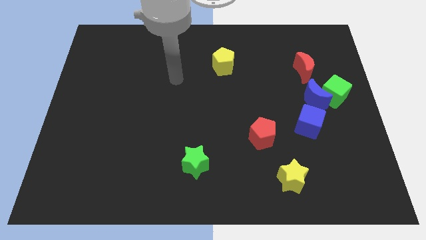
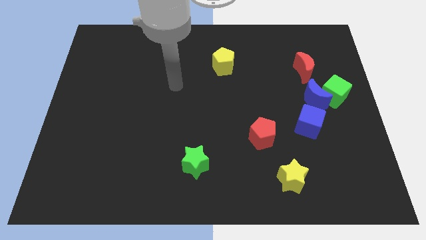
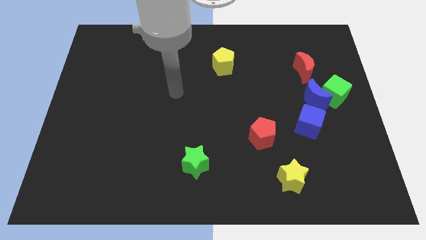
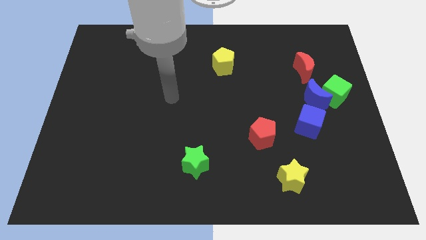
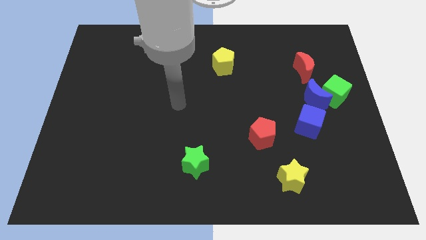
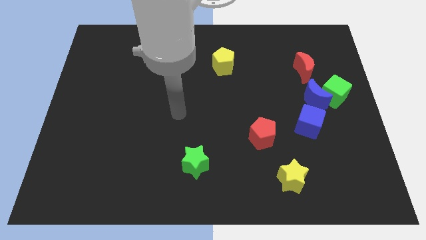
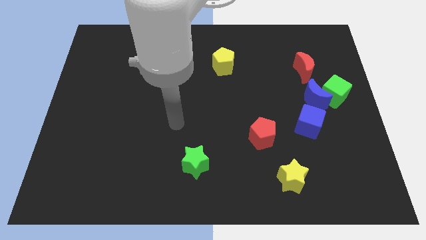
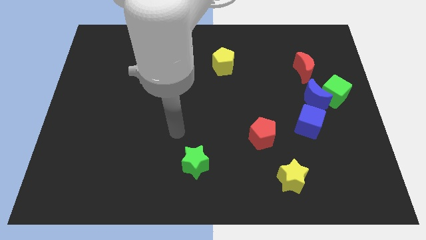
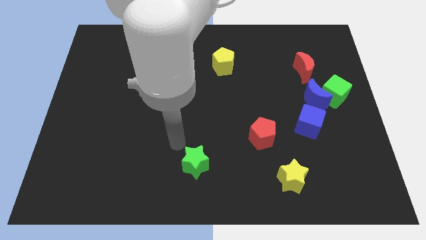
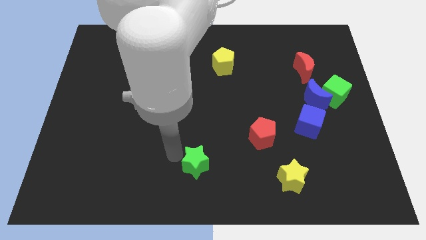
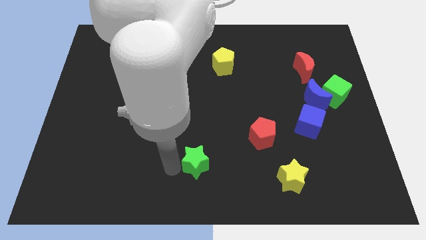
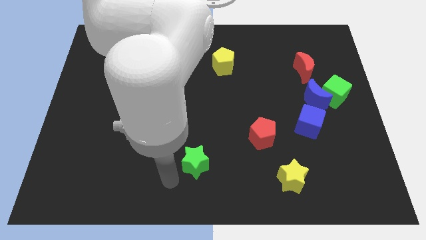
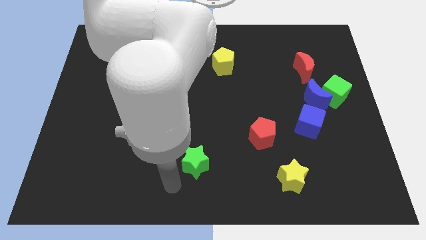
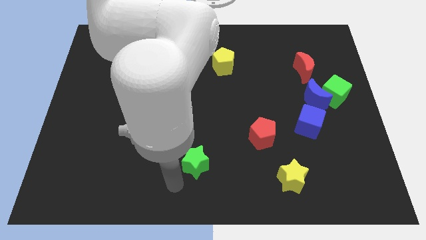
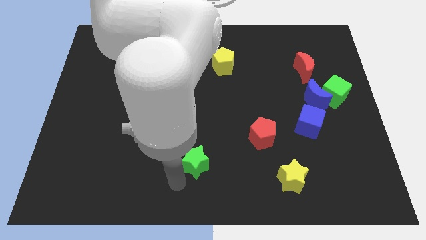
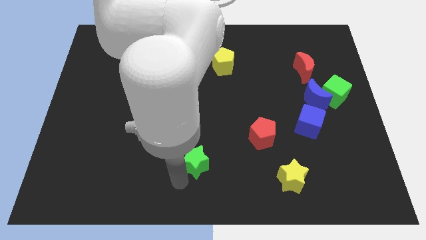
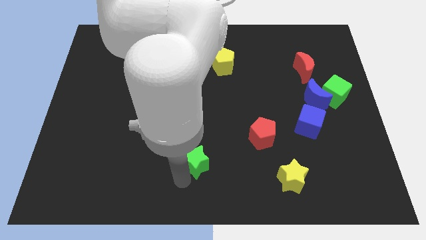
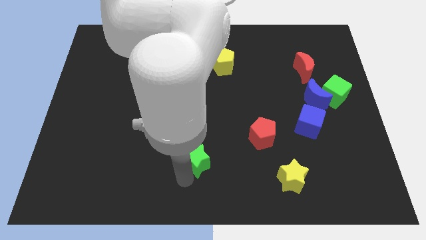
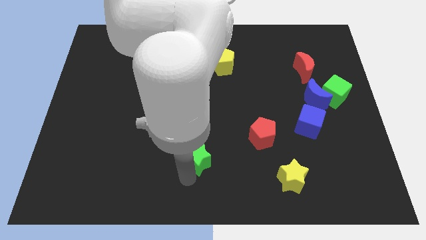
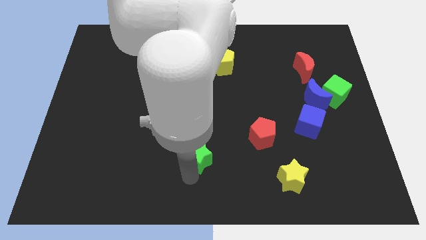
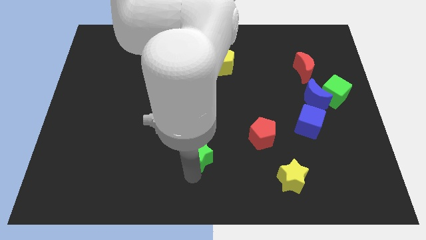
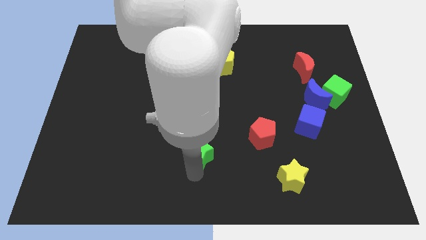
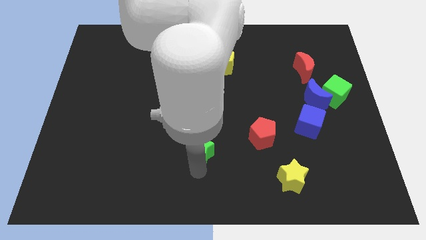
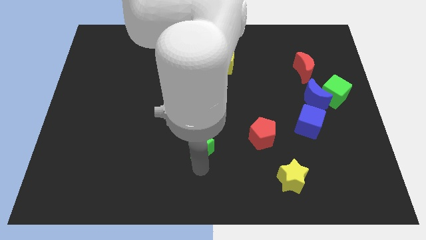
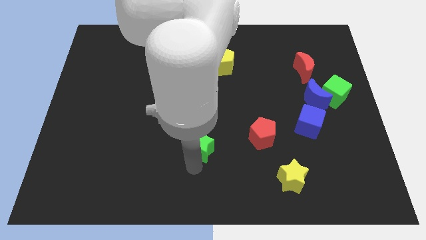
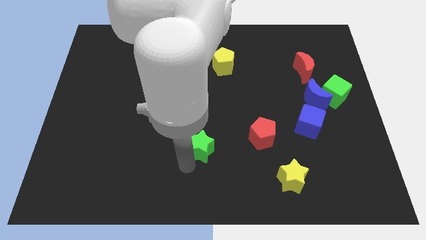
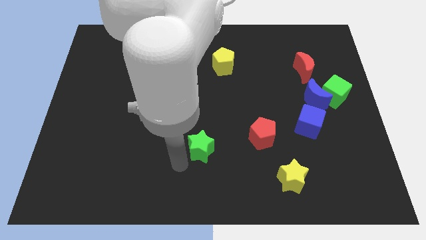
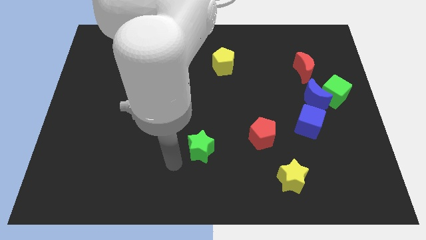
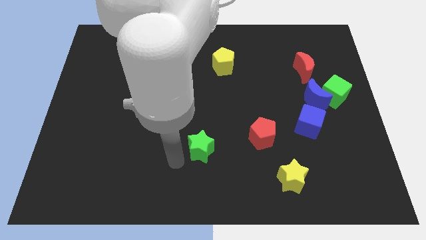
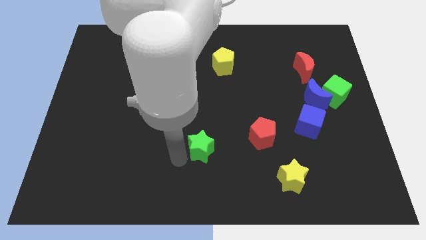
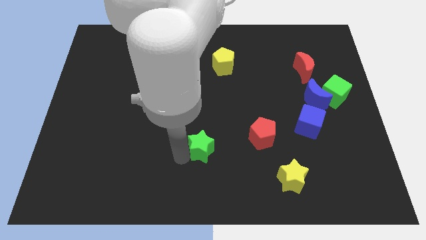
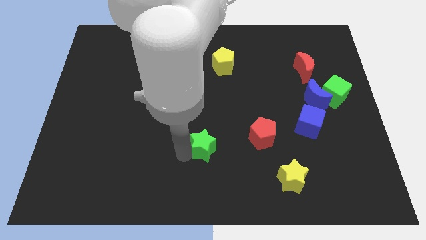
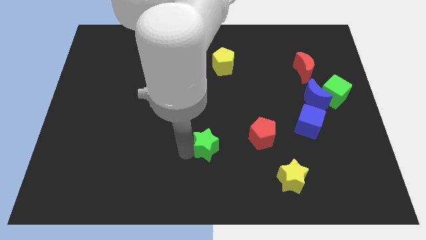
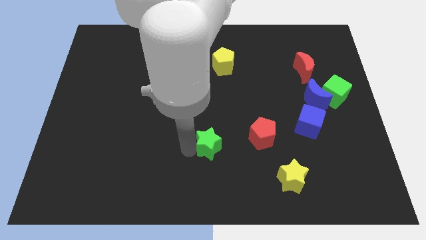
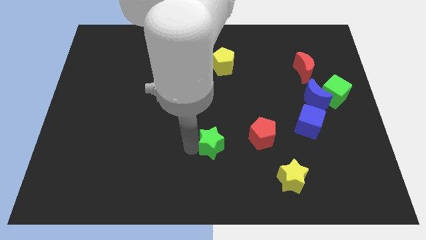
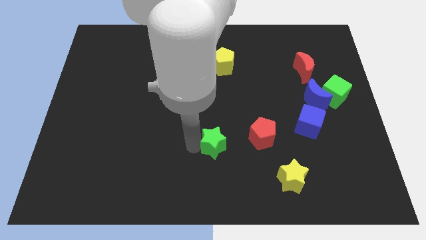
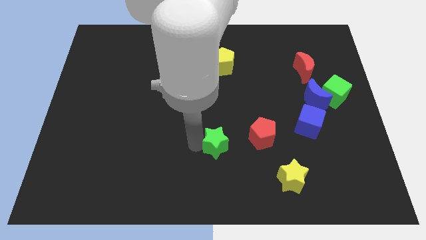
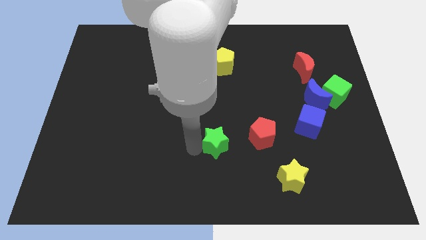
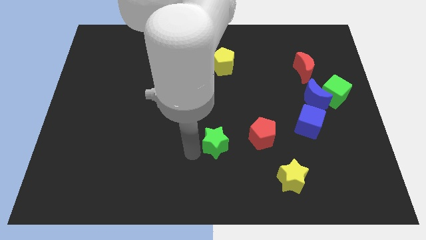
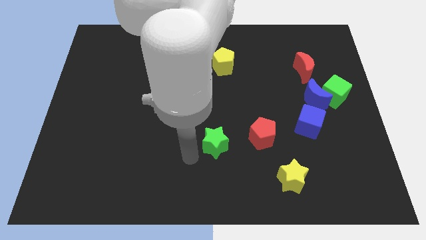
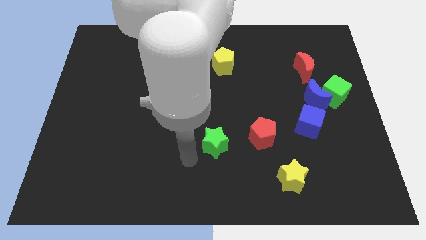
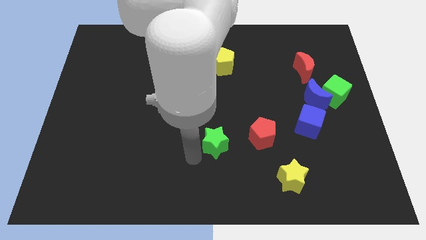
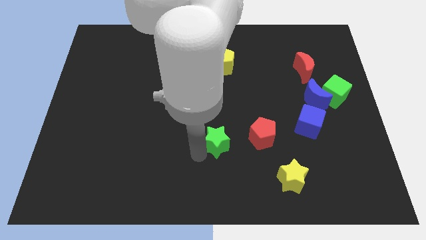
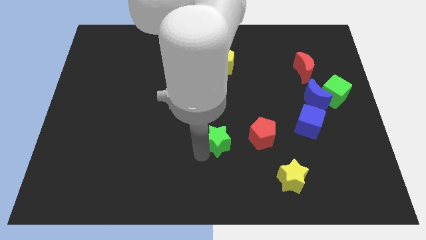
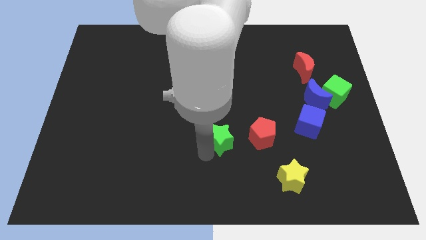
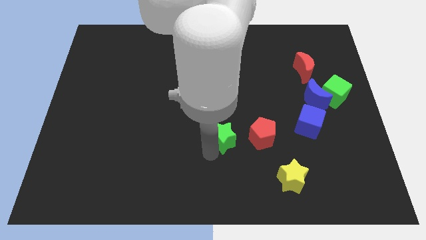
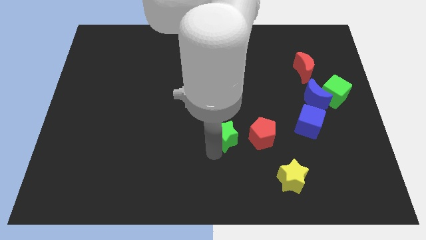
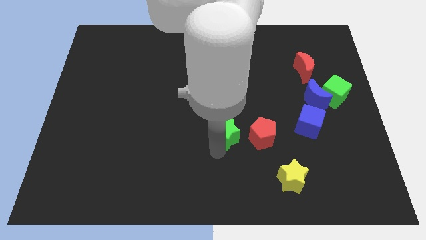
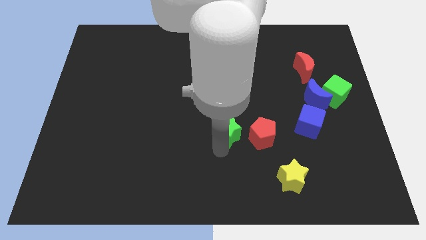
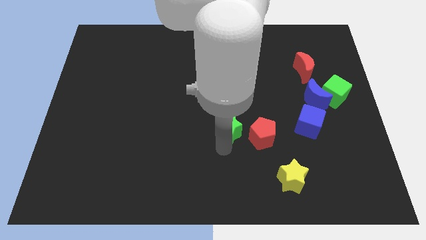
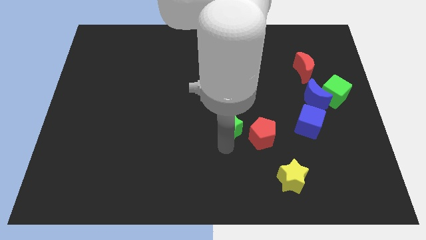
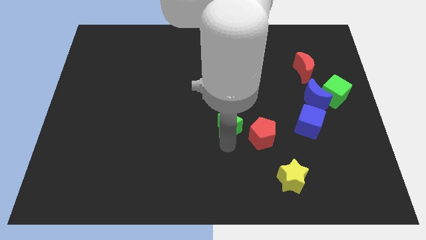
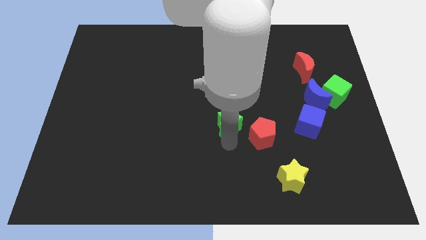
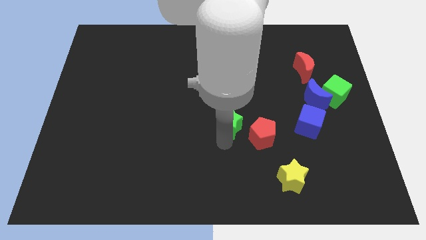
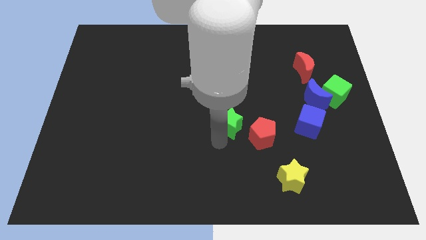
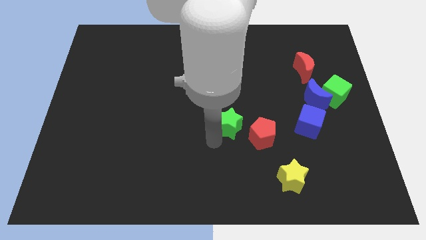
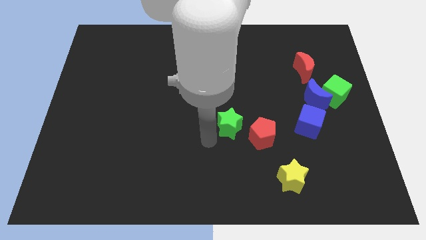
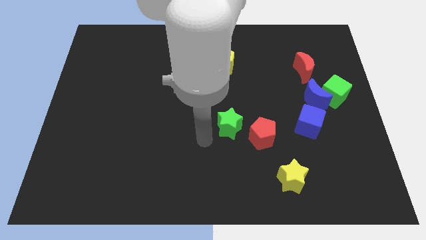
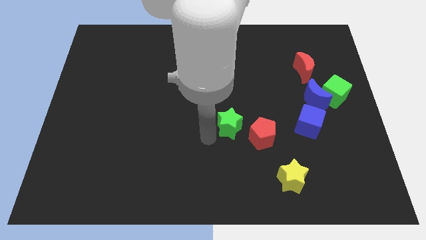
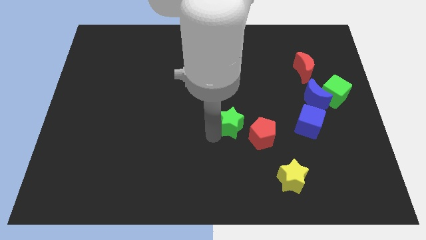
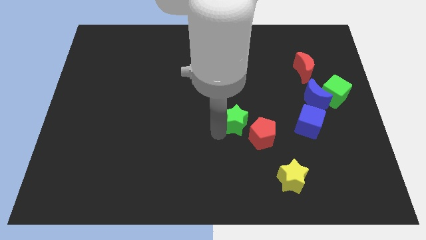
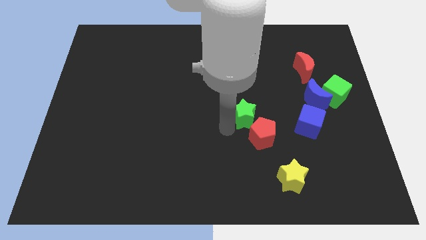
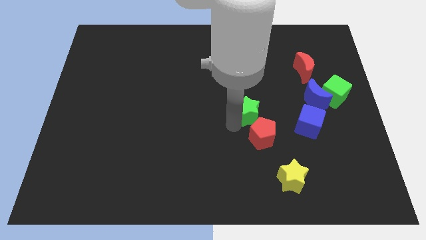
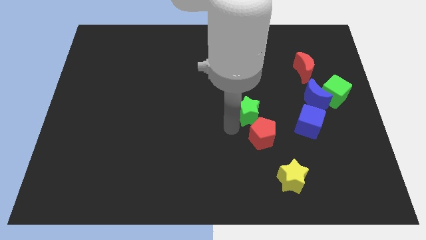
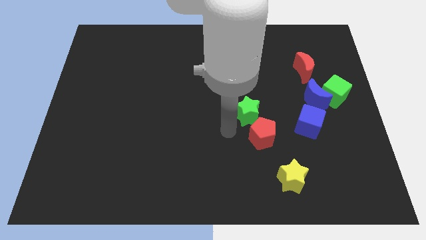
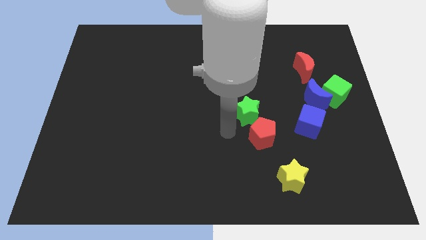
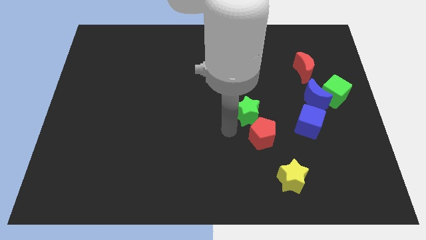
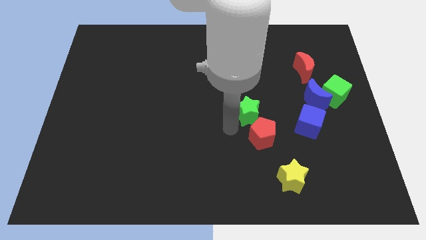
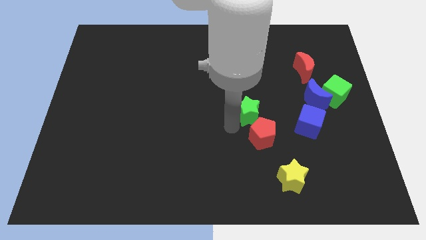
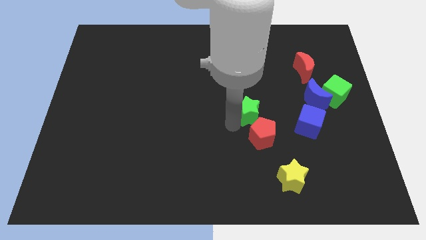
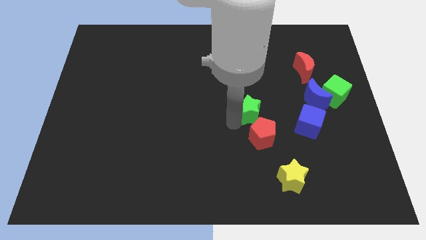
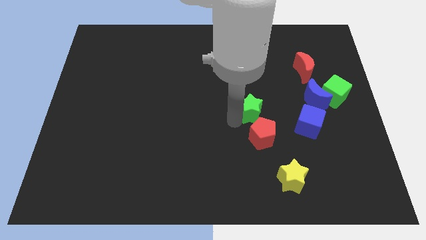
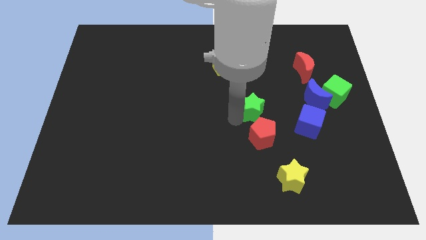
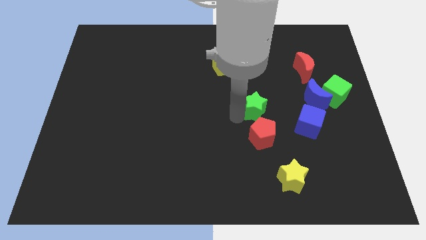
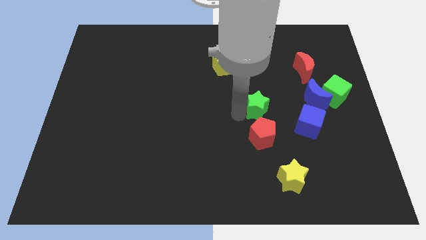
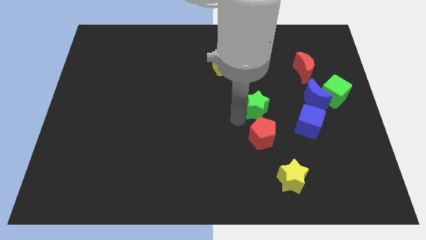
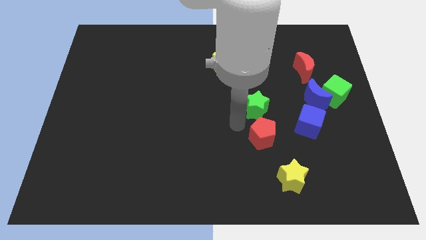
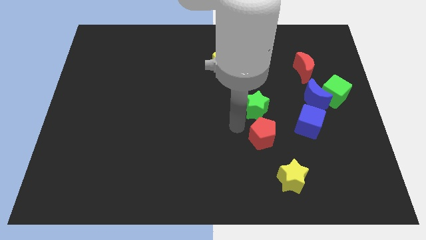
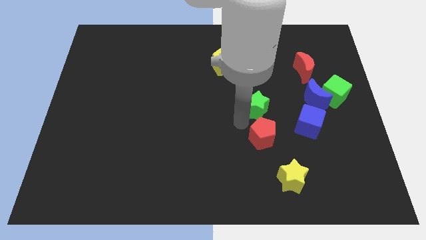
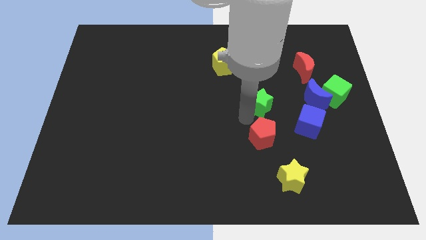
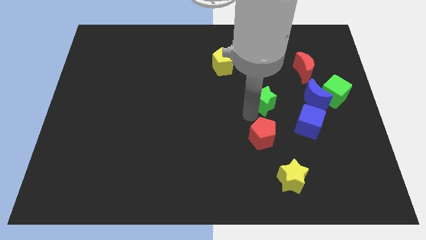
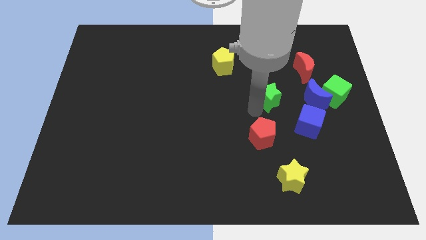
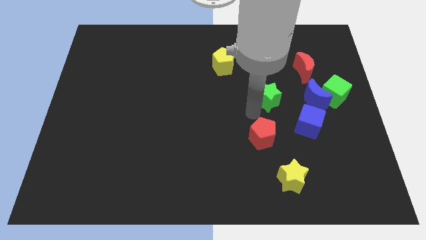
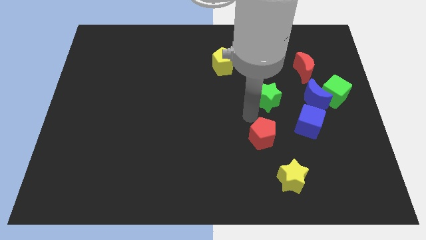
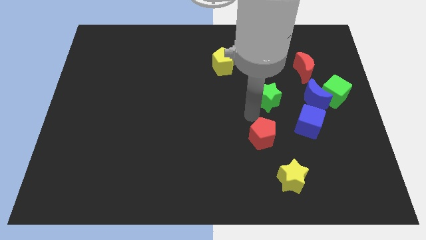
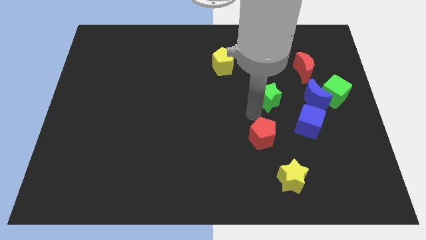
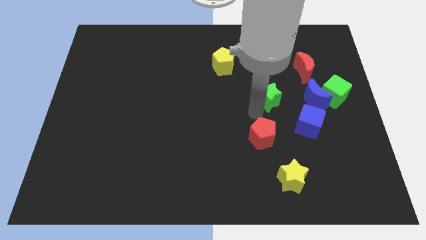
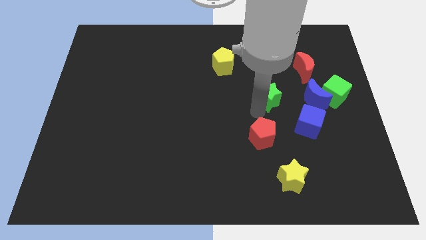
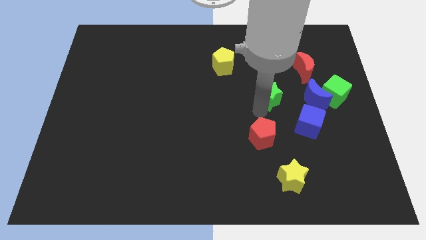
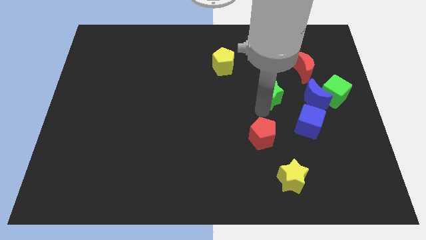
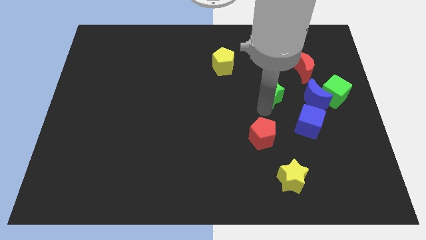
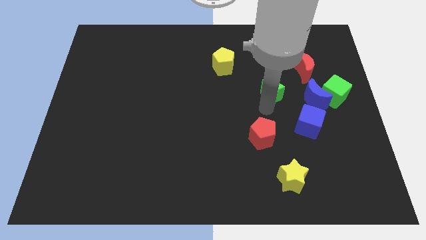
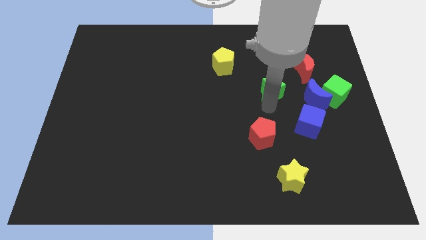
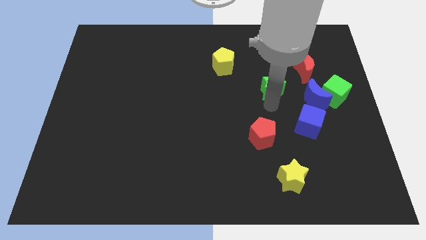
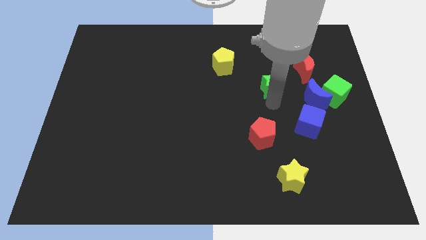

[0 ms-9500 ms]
slide the green star to the top left side of the blue moon
